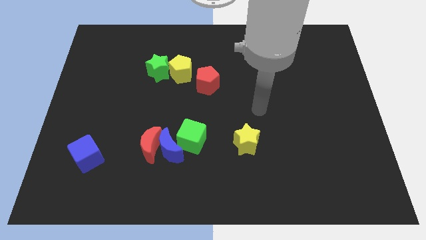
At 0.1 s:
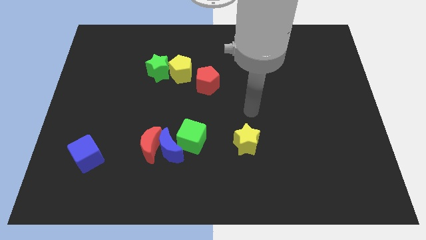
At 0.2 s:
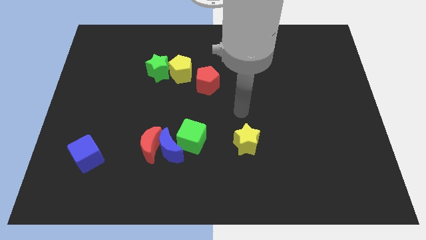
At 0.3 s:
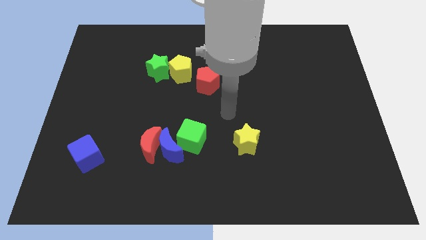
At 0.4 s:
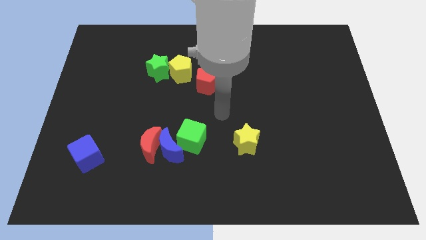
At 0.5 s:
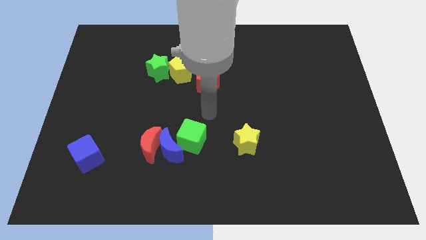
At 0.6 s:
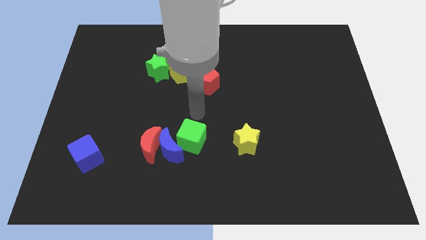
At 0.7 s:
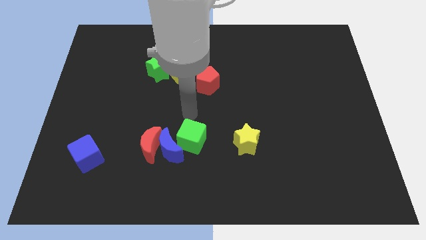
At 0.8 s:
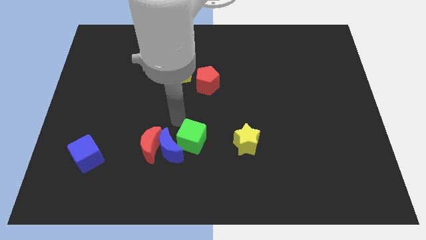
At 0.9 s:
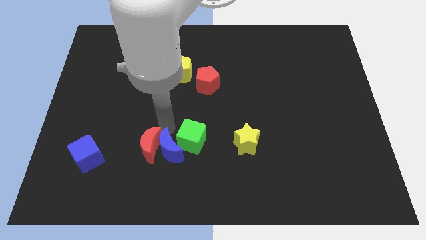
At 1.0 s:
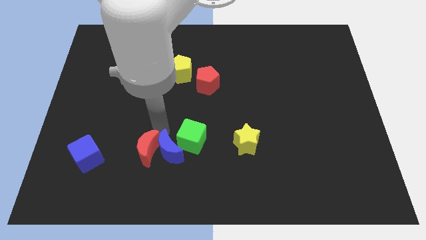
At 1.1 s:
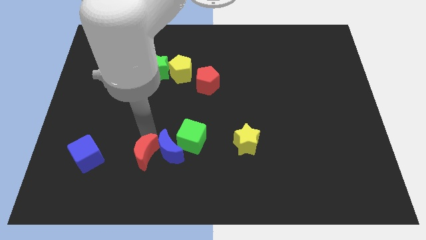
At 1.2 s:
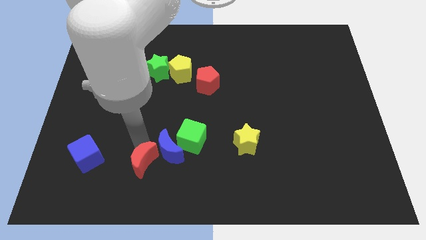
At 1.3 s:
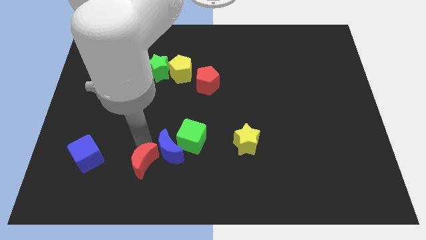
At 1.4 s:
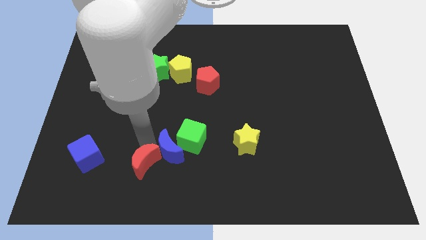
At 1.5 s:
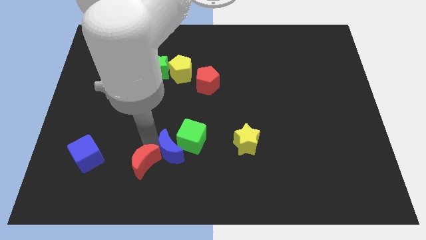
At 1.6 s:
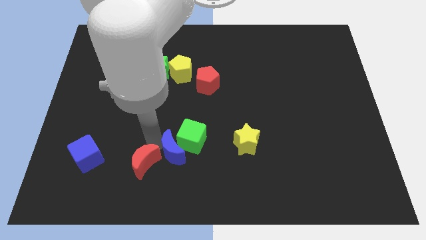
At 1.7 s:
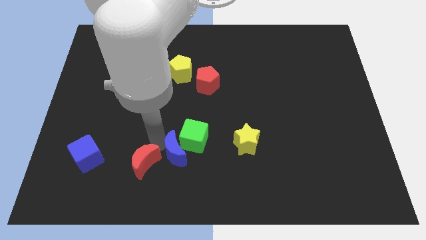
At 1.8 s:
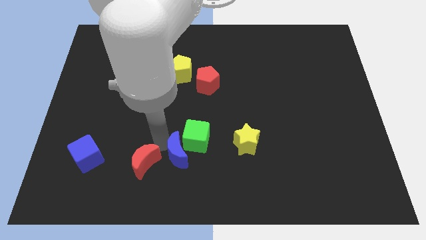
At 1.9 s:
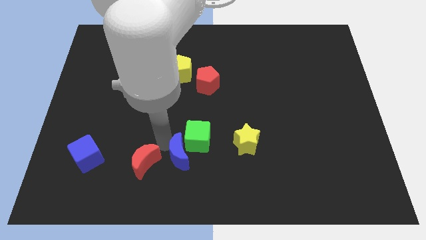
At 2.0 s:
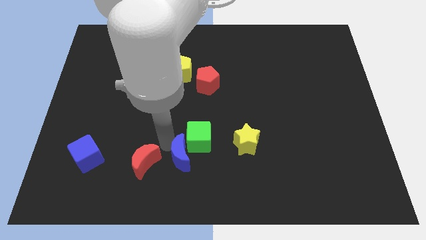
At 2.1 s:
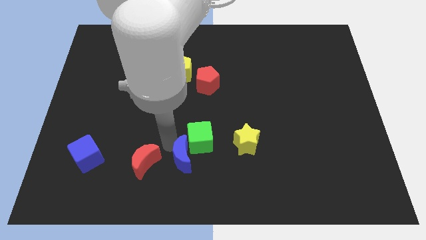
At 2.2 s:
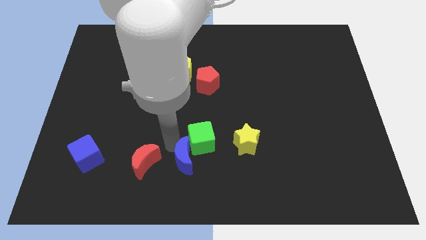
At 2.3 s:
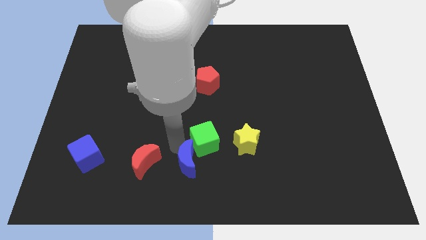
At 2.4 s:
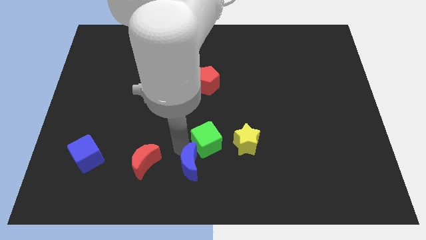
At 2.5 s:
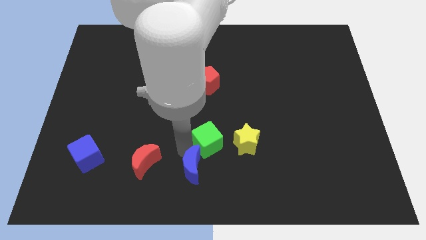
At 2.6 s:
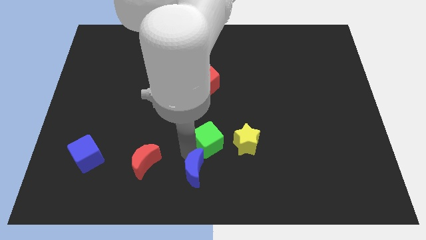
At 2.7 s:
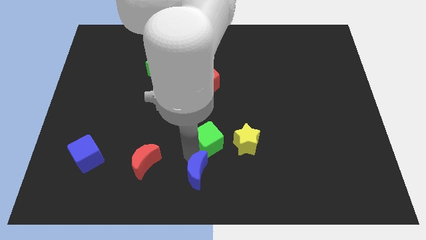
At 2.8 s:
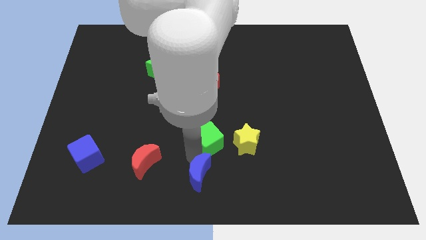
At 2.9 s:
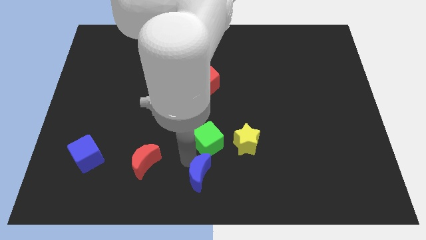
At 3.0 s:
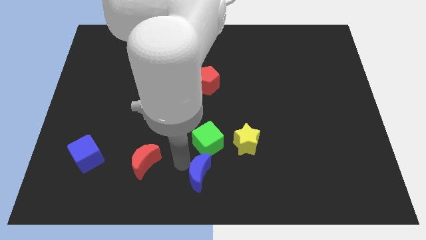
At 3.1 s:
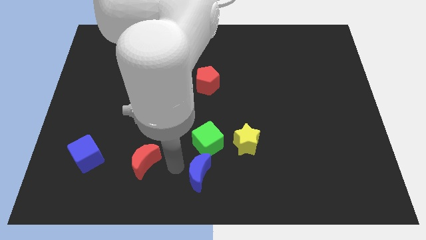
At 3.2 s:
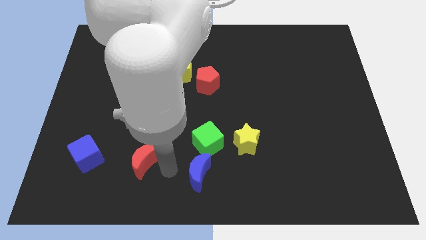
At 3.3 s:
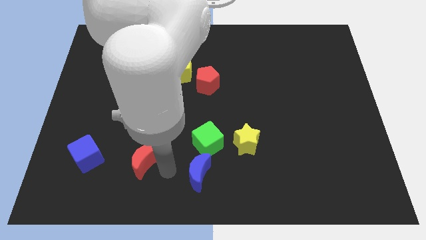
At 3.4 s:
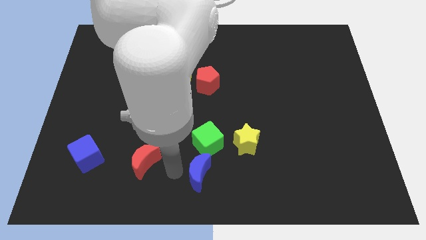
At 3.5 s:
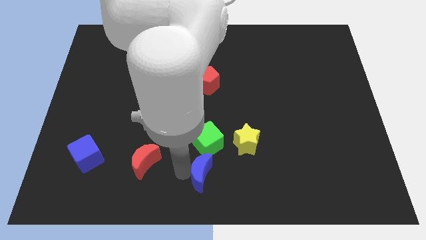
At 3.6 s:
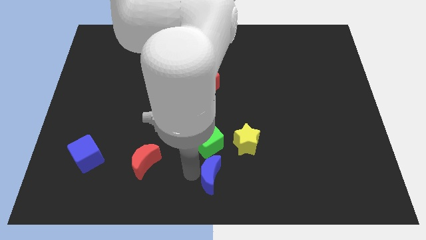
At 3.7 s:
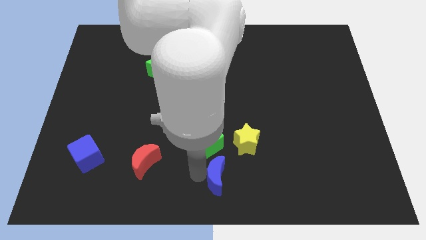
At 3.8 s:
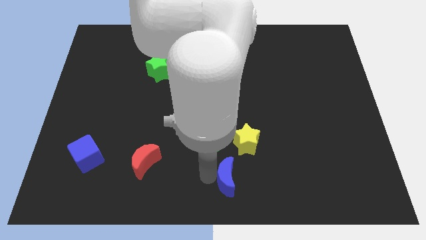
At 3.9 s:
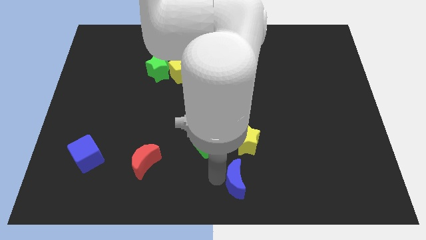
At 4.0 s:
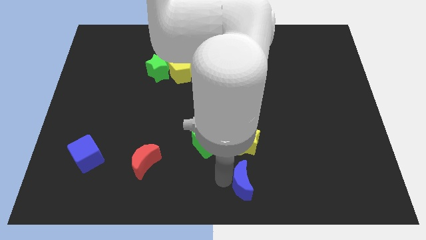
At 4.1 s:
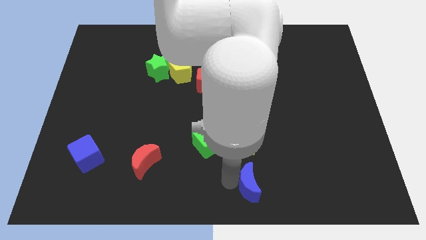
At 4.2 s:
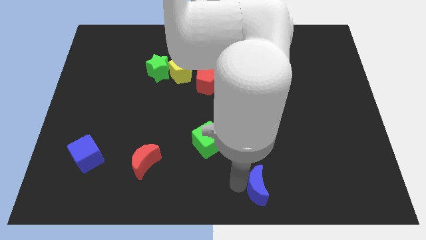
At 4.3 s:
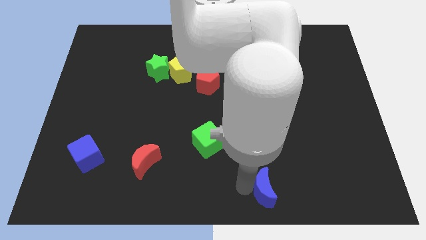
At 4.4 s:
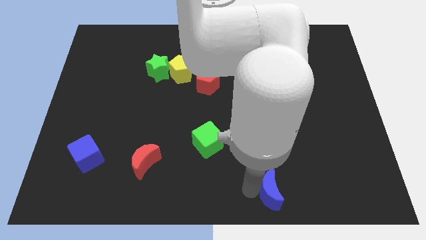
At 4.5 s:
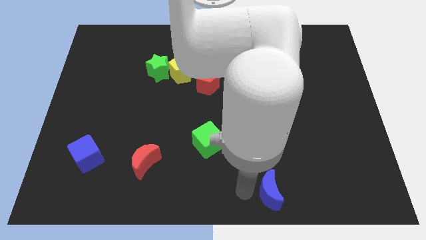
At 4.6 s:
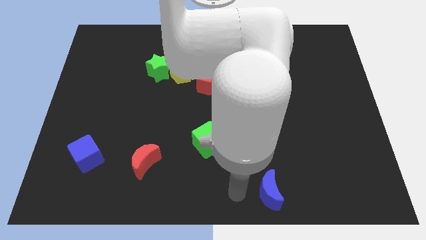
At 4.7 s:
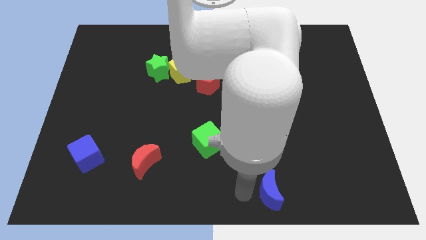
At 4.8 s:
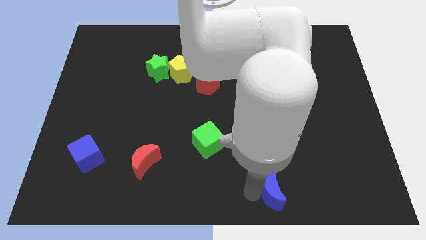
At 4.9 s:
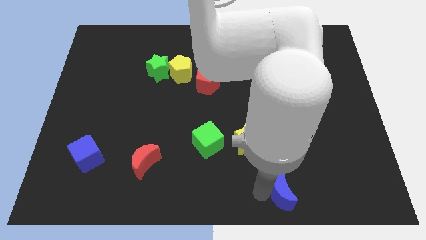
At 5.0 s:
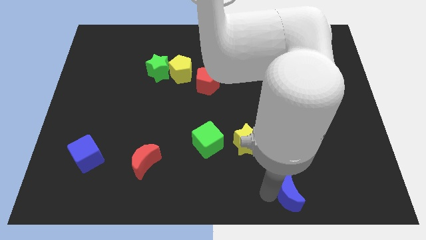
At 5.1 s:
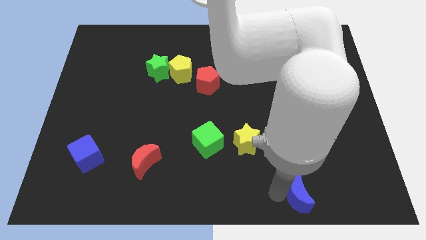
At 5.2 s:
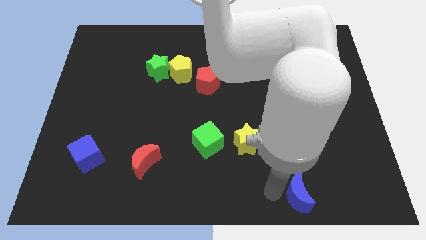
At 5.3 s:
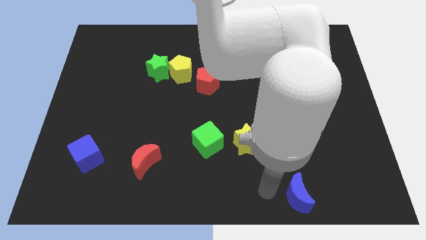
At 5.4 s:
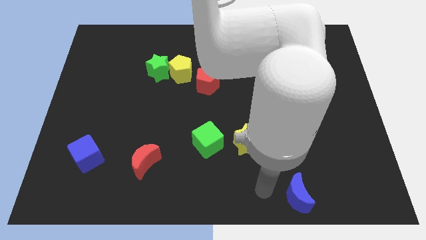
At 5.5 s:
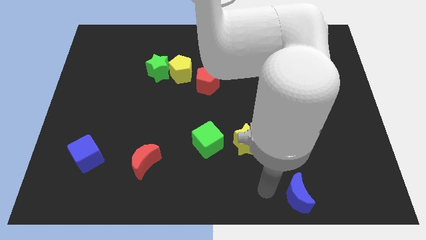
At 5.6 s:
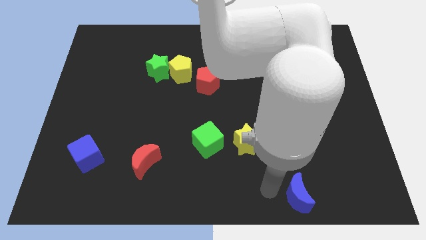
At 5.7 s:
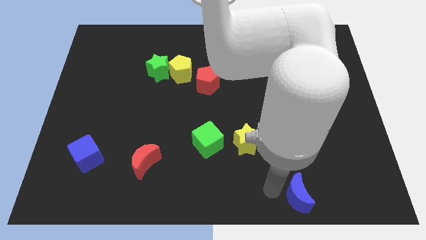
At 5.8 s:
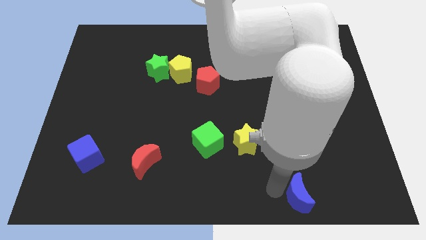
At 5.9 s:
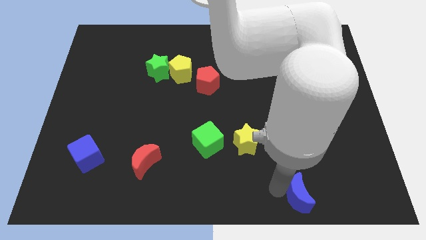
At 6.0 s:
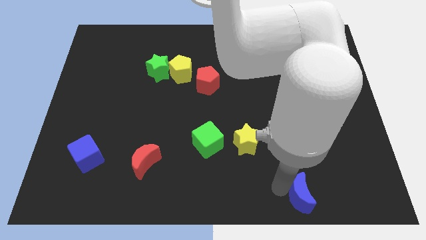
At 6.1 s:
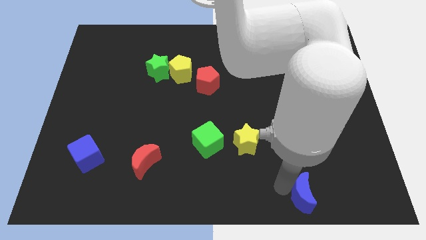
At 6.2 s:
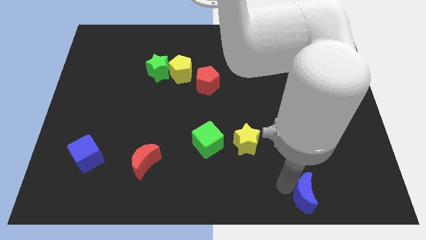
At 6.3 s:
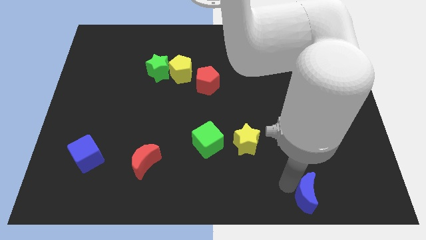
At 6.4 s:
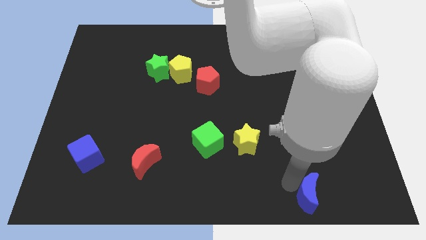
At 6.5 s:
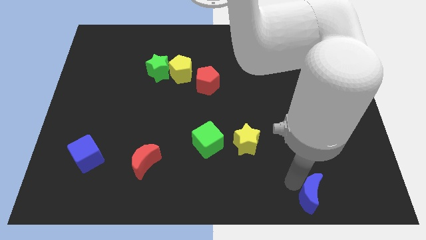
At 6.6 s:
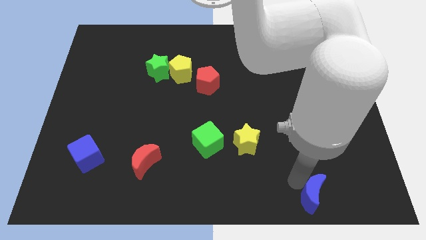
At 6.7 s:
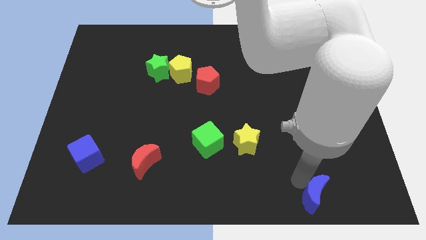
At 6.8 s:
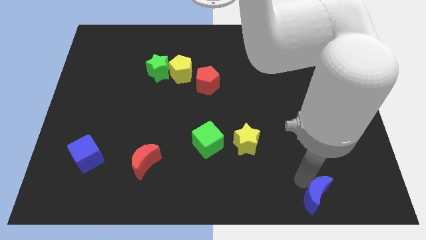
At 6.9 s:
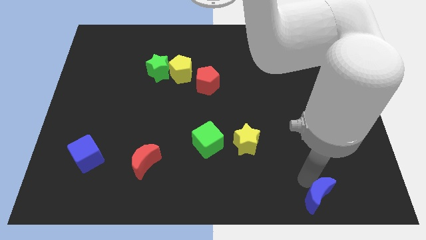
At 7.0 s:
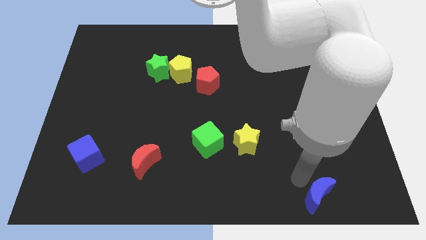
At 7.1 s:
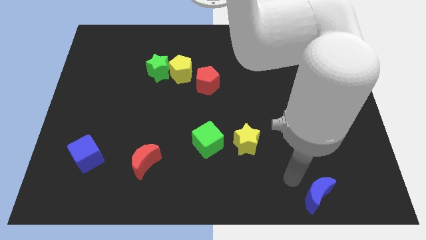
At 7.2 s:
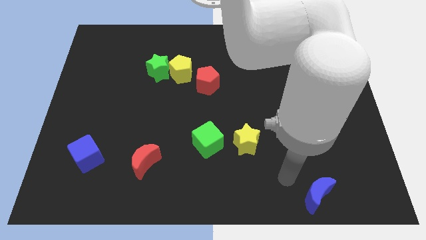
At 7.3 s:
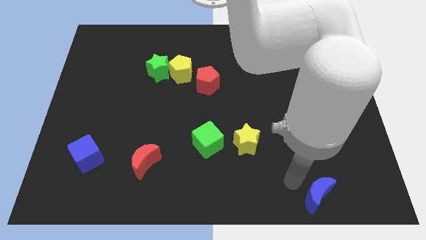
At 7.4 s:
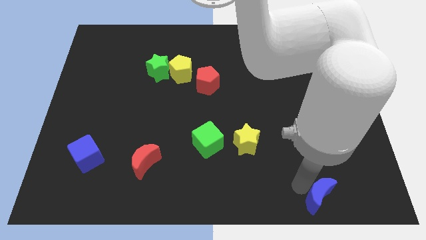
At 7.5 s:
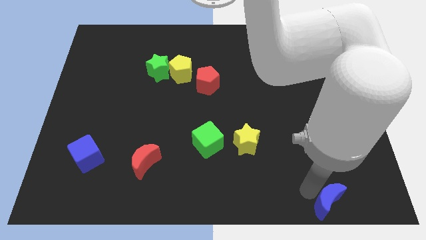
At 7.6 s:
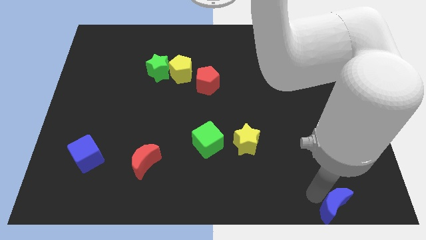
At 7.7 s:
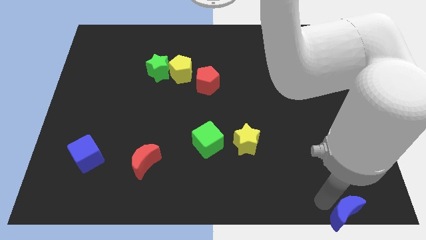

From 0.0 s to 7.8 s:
move the blue moon to the lower right corner
